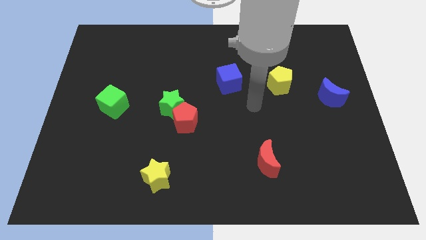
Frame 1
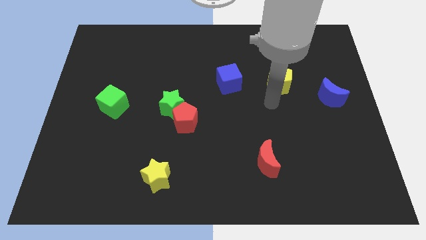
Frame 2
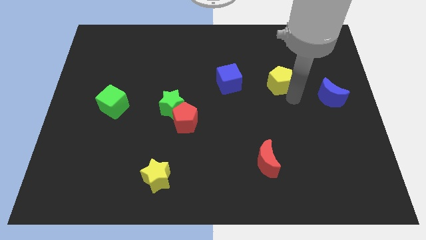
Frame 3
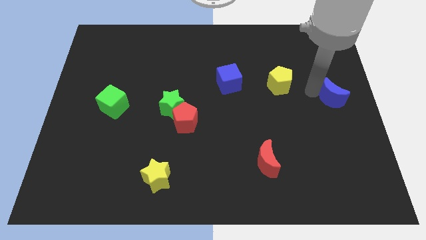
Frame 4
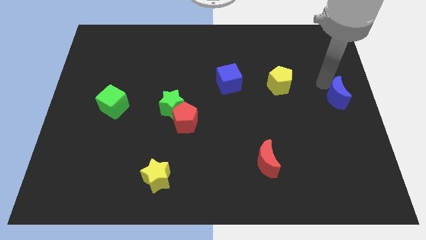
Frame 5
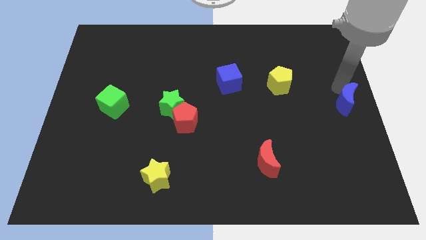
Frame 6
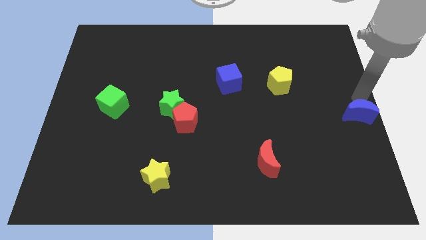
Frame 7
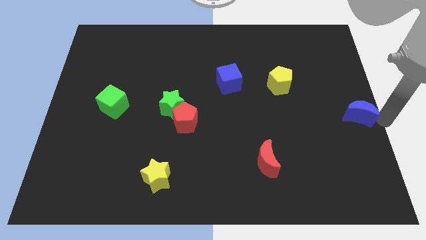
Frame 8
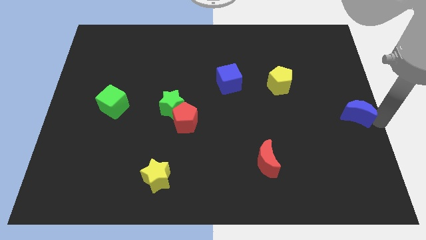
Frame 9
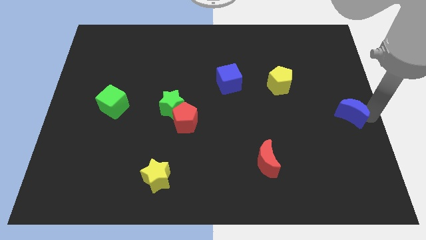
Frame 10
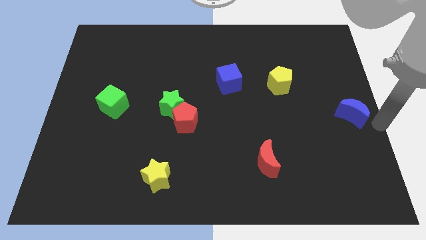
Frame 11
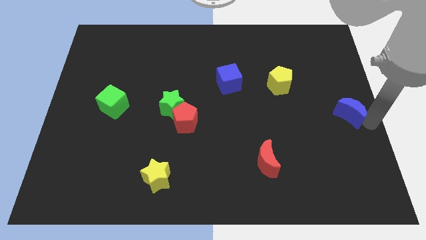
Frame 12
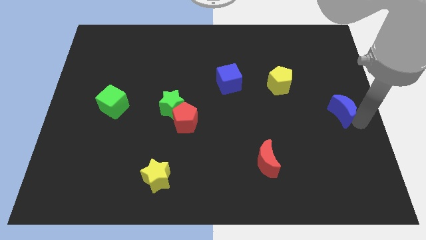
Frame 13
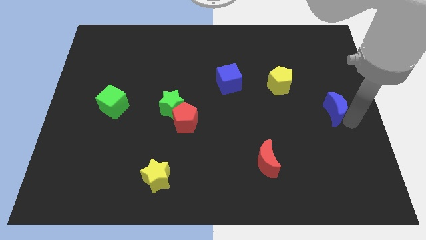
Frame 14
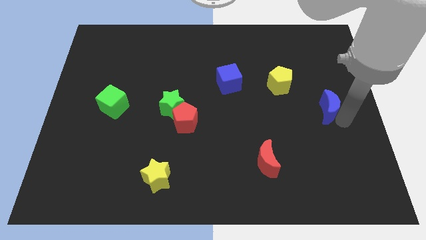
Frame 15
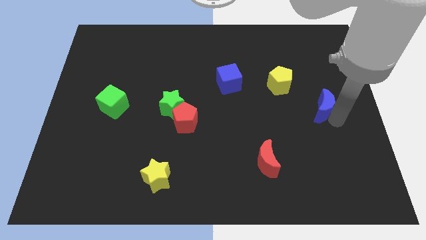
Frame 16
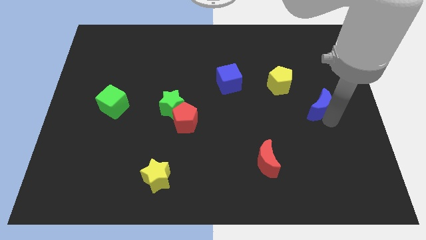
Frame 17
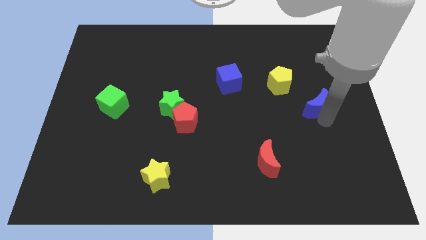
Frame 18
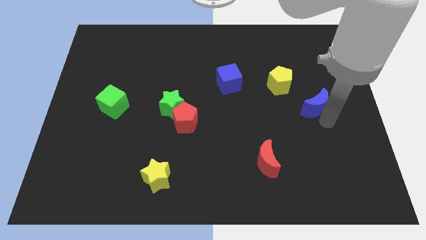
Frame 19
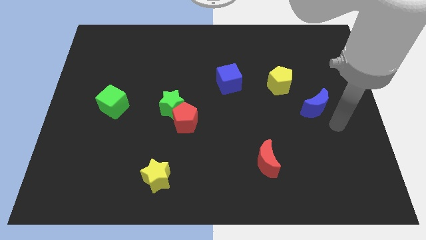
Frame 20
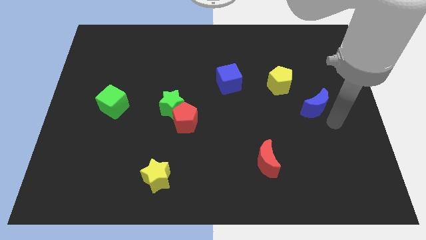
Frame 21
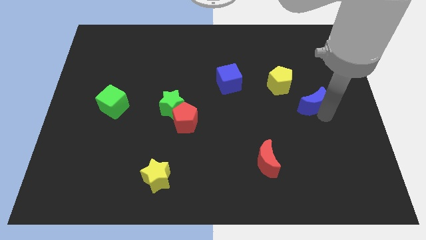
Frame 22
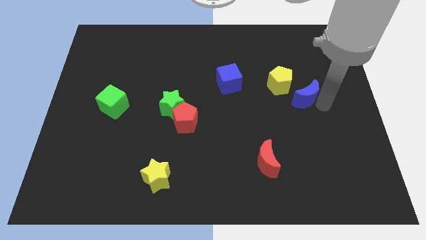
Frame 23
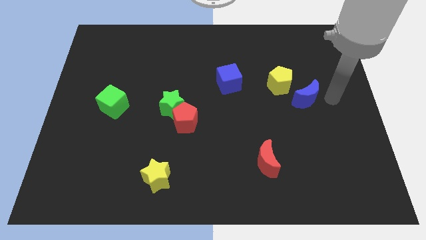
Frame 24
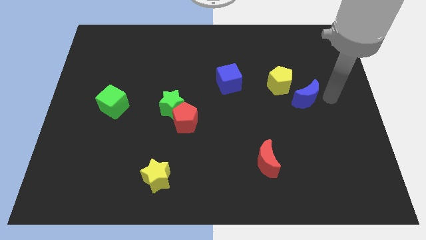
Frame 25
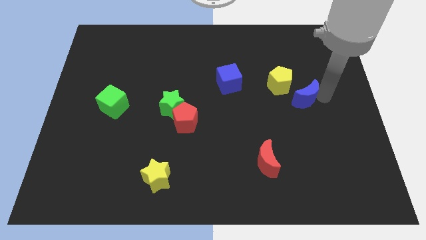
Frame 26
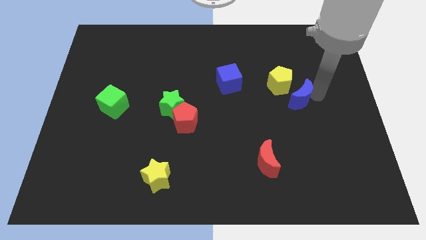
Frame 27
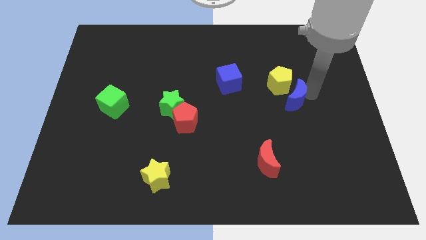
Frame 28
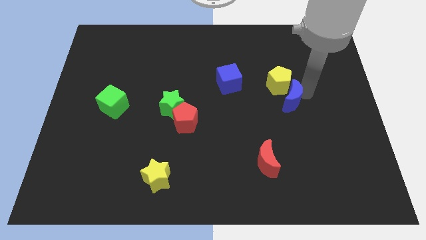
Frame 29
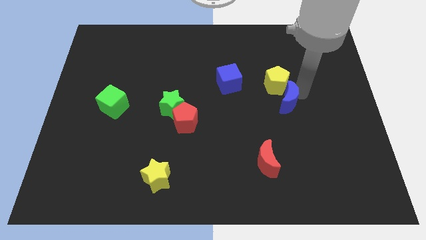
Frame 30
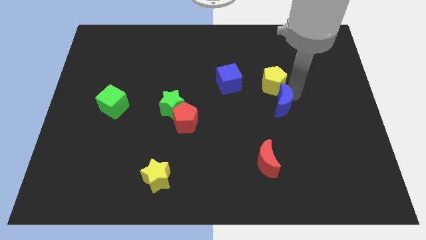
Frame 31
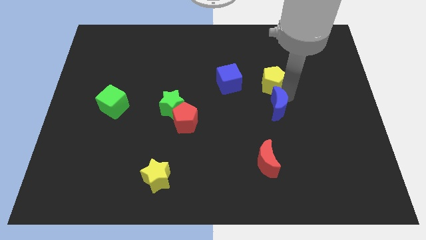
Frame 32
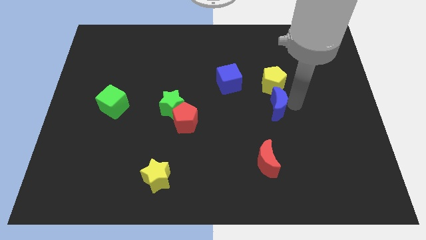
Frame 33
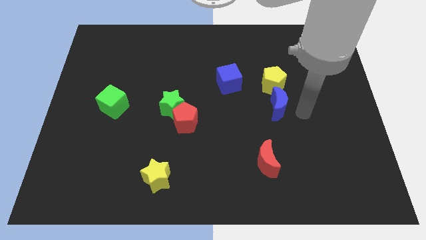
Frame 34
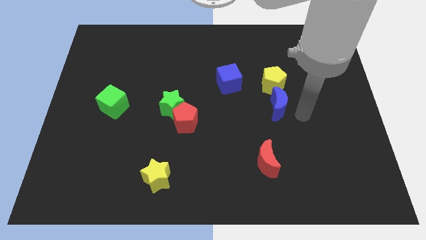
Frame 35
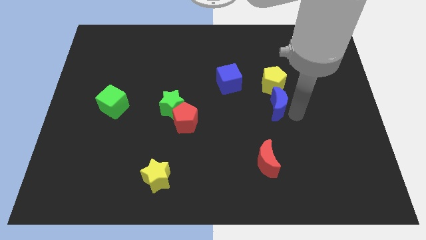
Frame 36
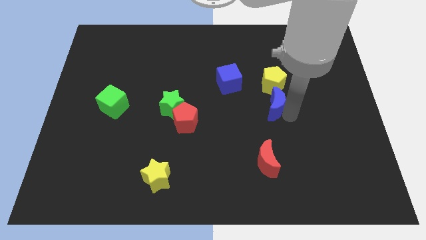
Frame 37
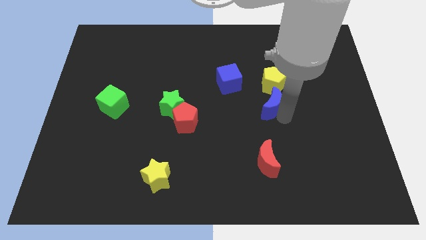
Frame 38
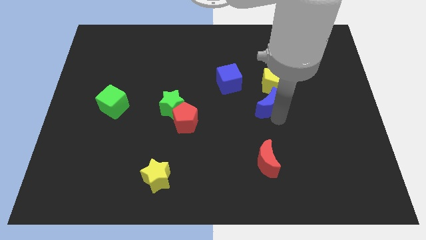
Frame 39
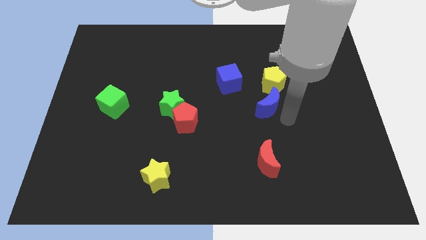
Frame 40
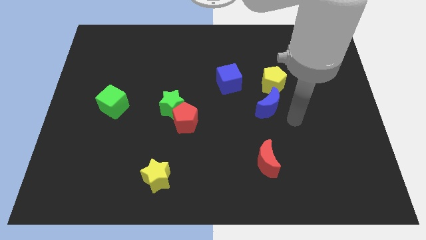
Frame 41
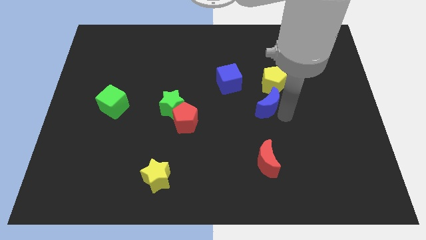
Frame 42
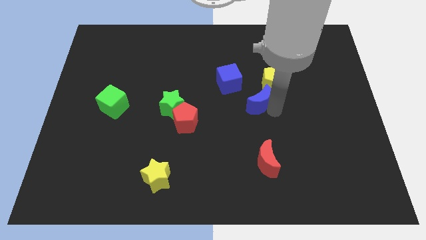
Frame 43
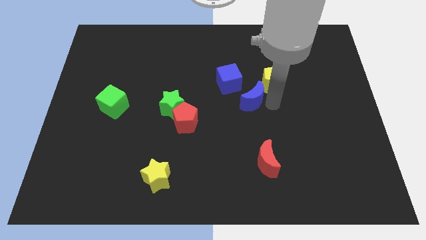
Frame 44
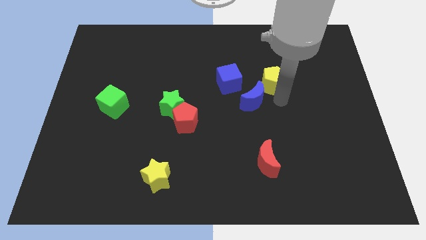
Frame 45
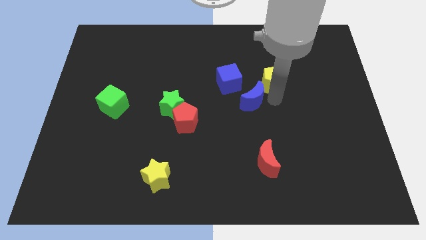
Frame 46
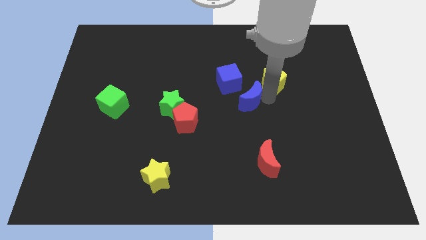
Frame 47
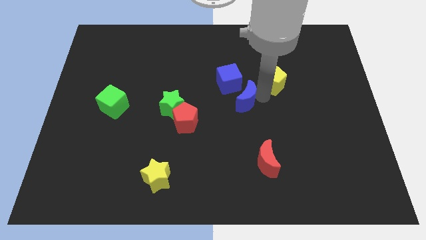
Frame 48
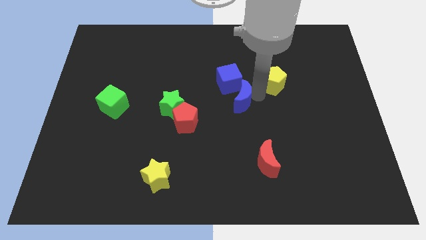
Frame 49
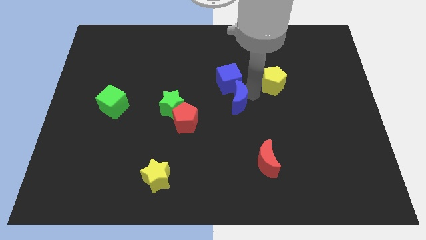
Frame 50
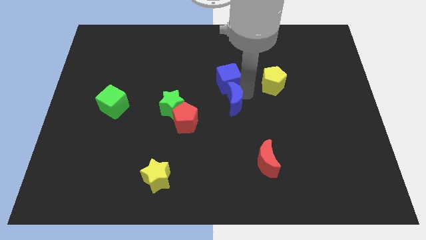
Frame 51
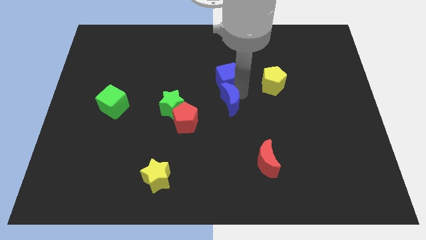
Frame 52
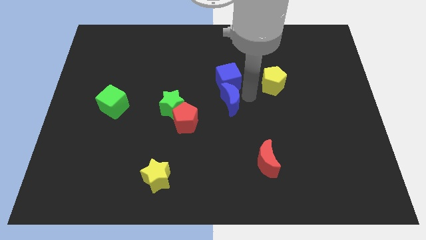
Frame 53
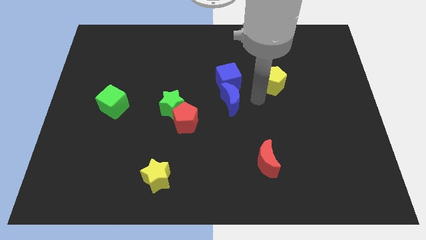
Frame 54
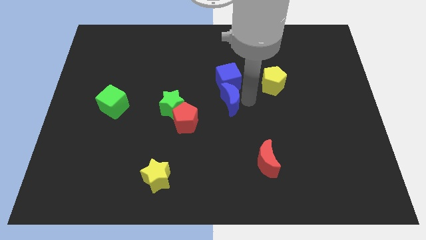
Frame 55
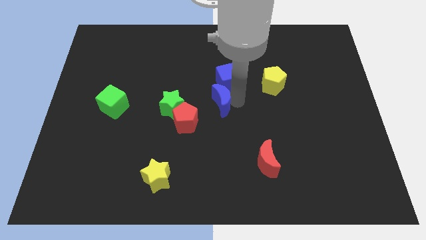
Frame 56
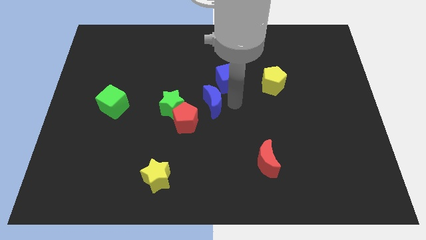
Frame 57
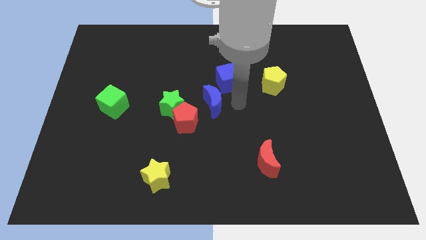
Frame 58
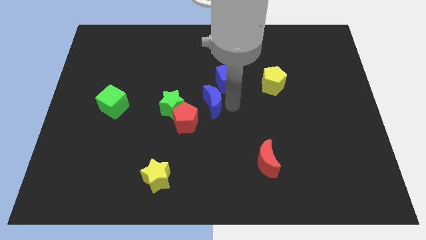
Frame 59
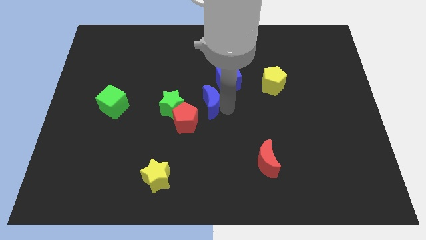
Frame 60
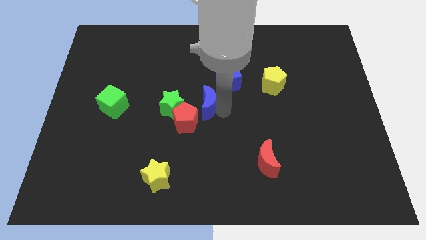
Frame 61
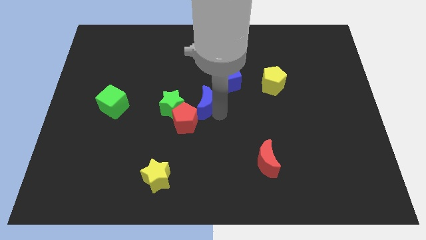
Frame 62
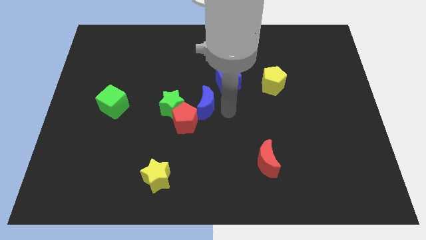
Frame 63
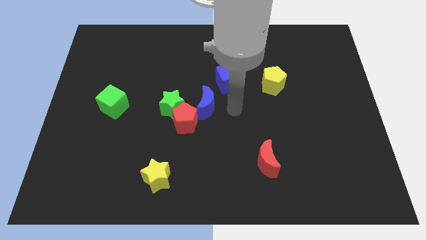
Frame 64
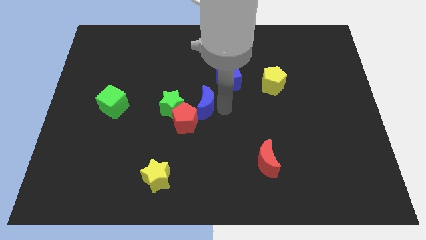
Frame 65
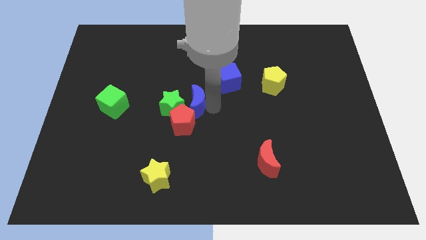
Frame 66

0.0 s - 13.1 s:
push the blue moon close to the green star
